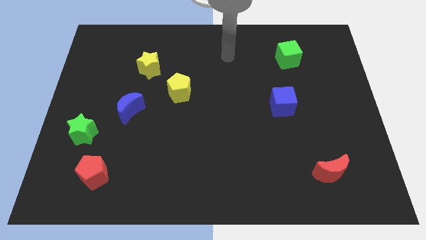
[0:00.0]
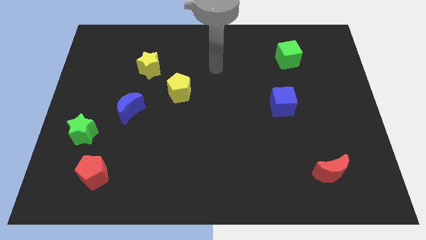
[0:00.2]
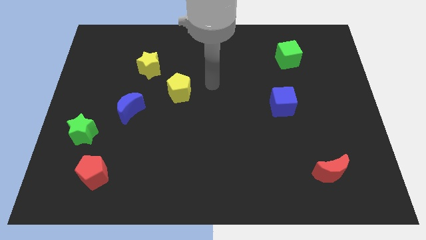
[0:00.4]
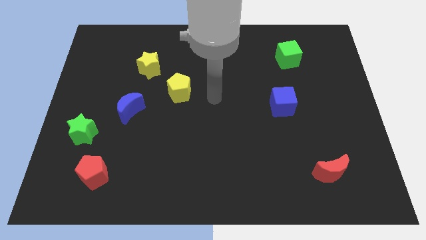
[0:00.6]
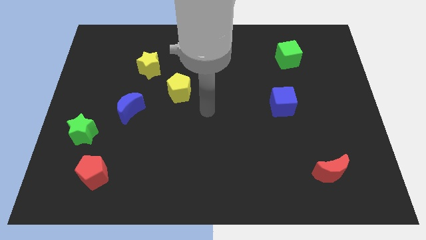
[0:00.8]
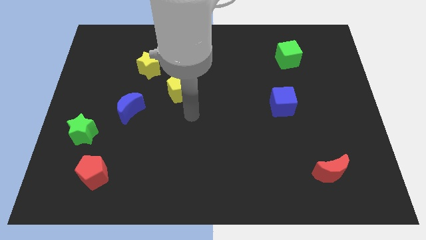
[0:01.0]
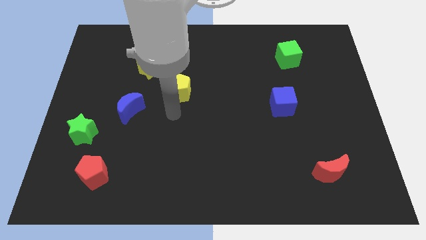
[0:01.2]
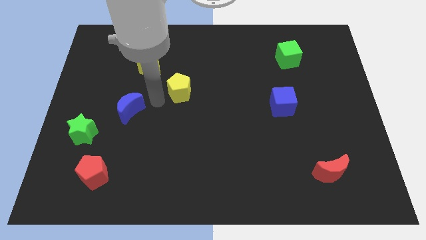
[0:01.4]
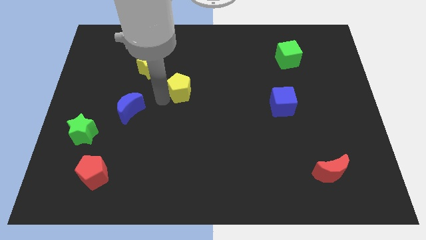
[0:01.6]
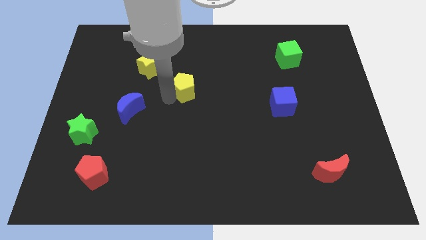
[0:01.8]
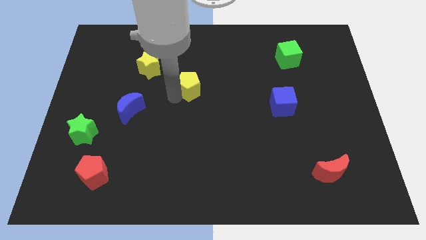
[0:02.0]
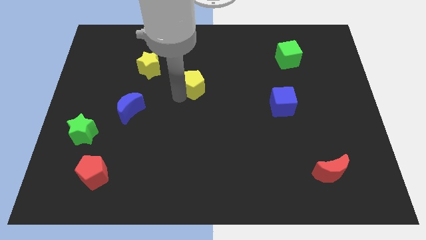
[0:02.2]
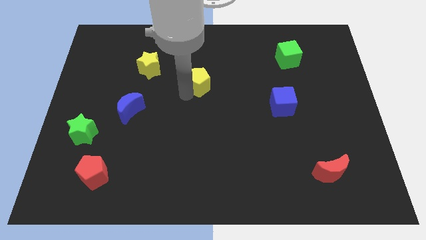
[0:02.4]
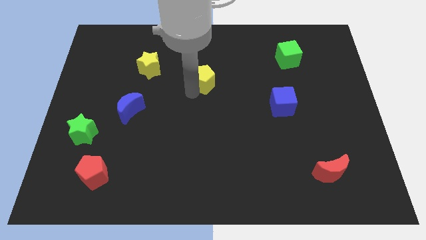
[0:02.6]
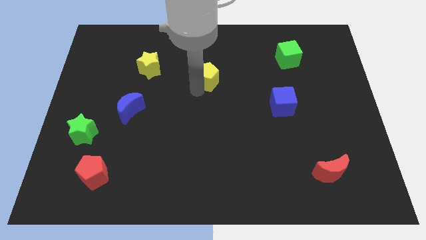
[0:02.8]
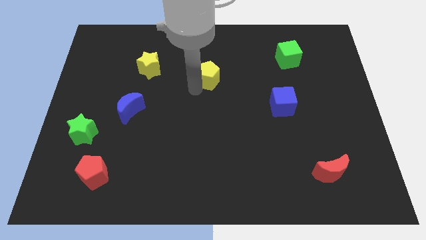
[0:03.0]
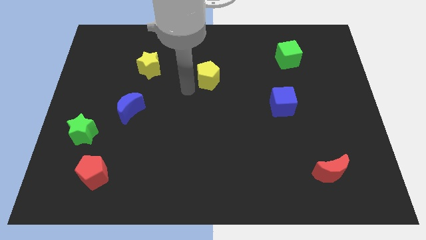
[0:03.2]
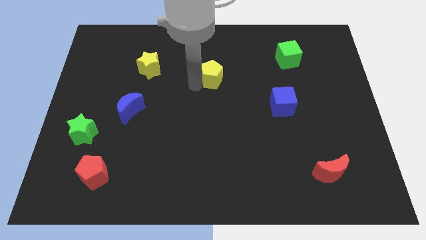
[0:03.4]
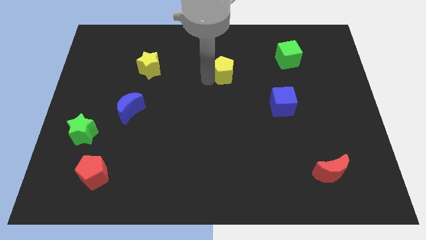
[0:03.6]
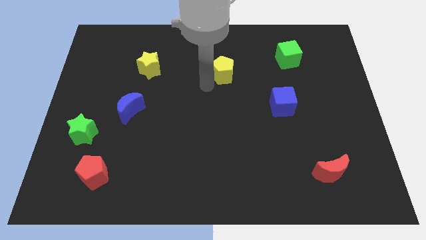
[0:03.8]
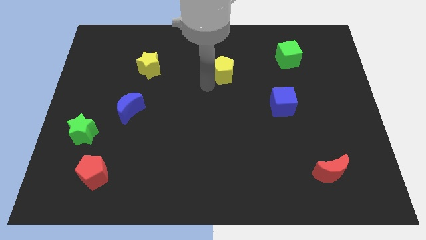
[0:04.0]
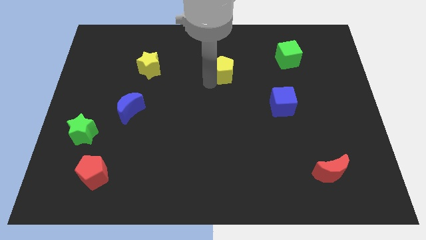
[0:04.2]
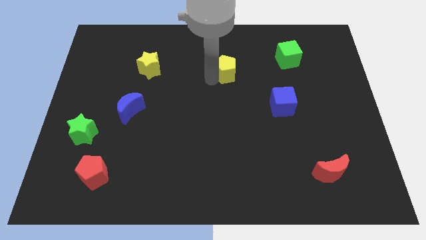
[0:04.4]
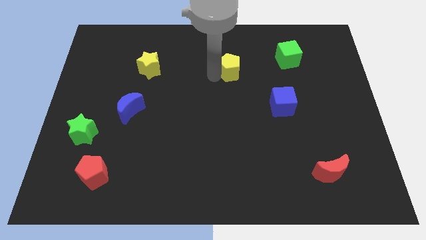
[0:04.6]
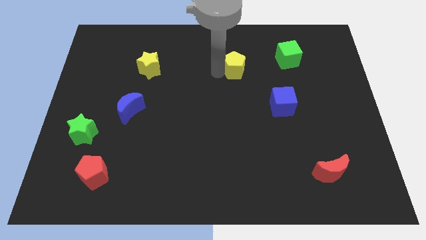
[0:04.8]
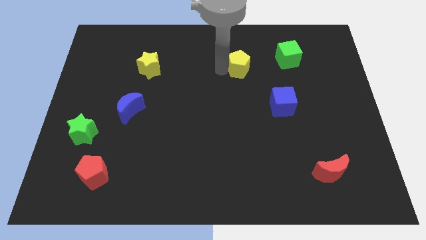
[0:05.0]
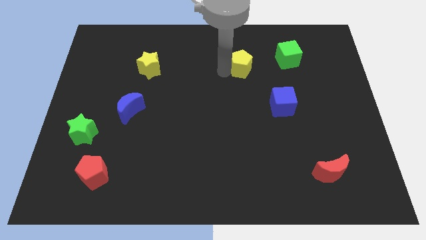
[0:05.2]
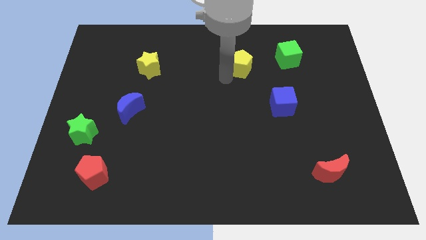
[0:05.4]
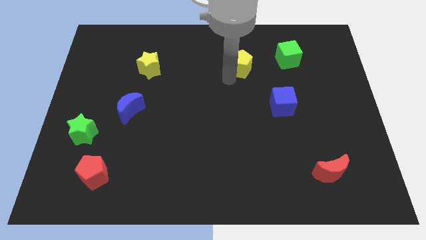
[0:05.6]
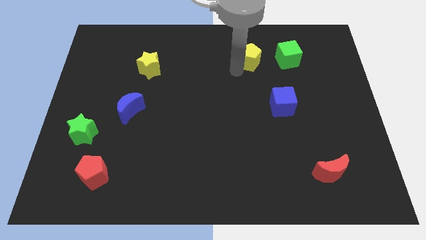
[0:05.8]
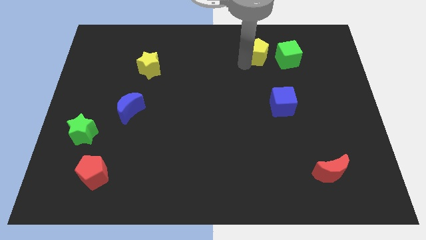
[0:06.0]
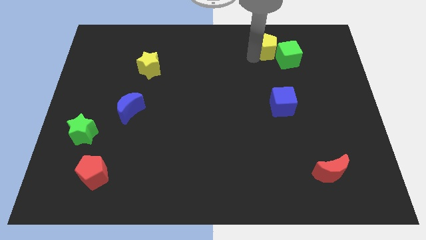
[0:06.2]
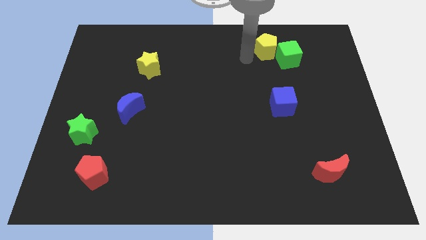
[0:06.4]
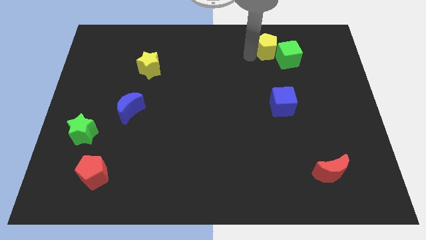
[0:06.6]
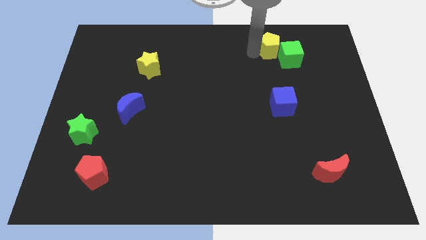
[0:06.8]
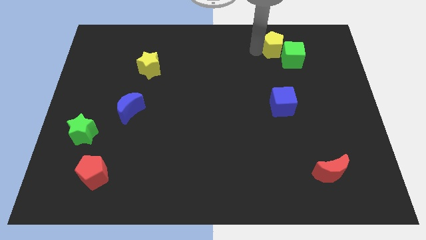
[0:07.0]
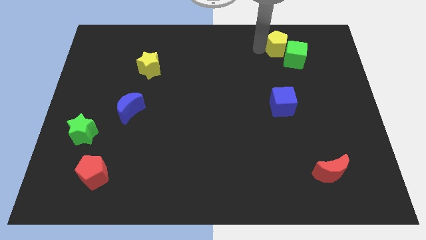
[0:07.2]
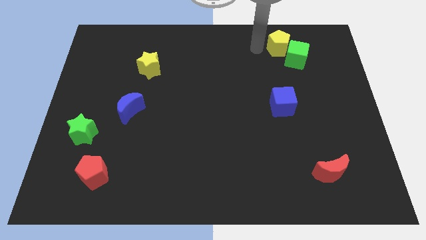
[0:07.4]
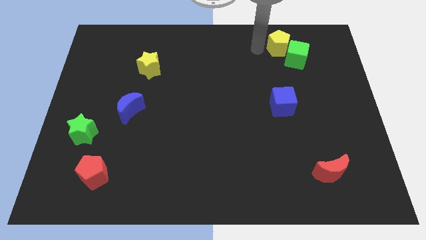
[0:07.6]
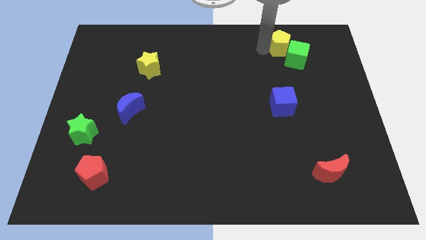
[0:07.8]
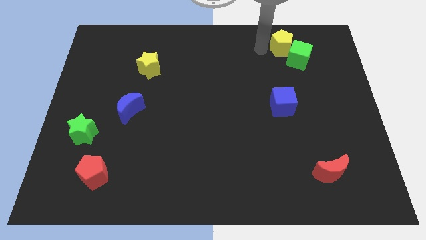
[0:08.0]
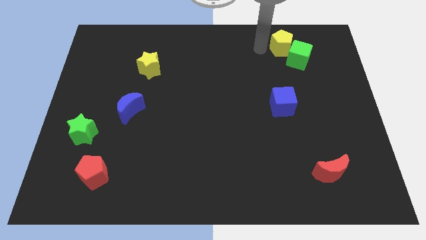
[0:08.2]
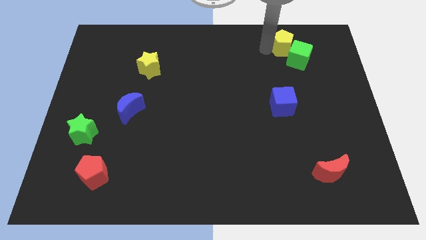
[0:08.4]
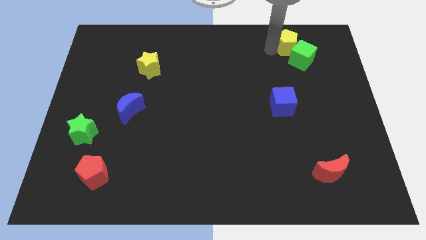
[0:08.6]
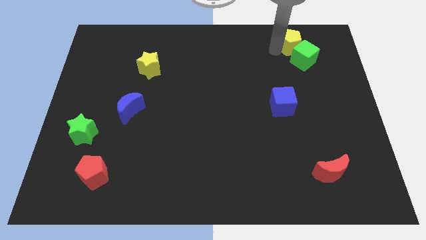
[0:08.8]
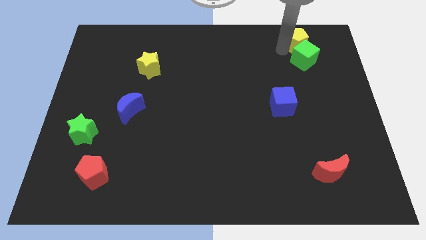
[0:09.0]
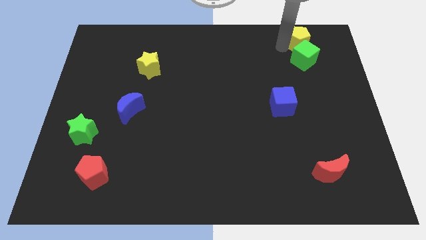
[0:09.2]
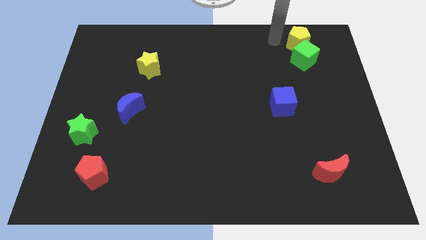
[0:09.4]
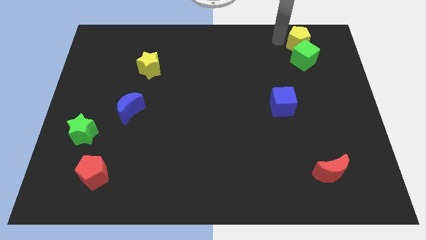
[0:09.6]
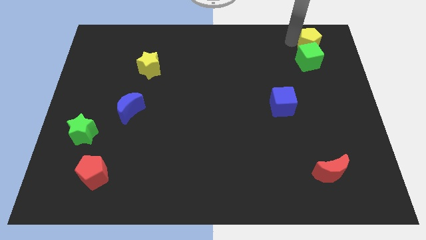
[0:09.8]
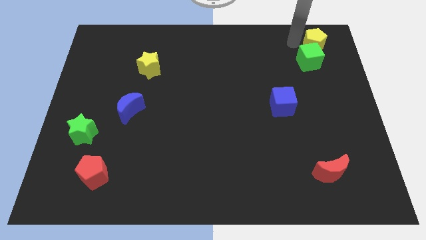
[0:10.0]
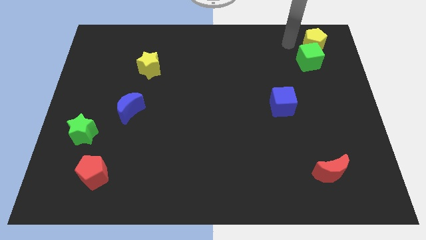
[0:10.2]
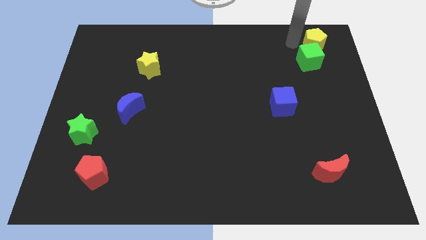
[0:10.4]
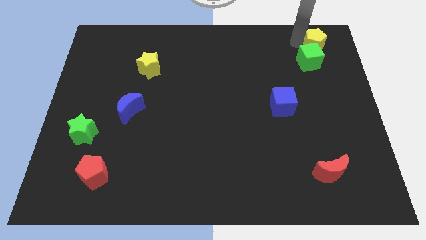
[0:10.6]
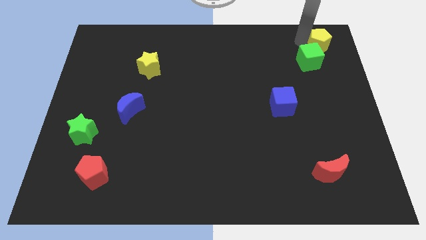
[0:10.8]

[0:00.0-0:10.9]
push the yellow pentagon to the top right corner

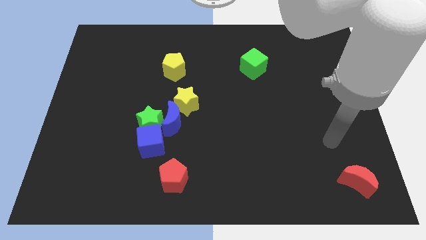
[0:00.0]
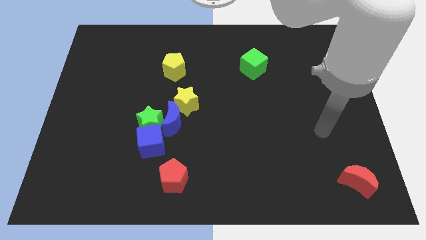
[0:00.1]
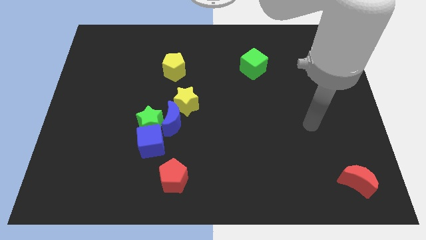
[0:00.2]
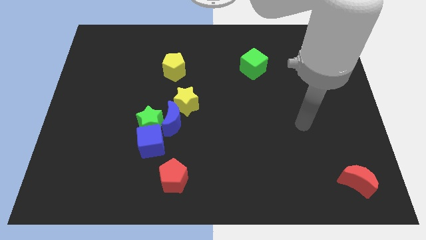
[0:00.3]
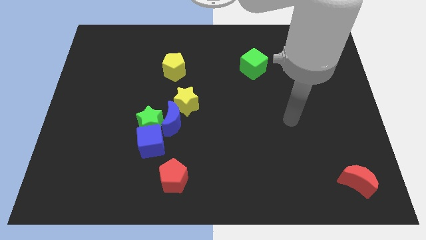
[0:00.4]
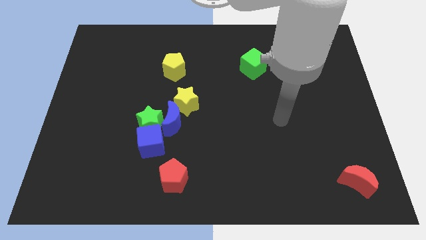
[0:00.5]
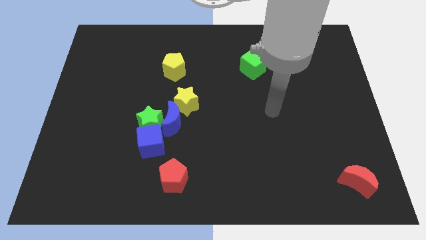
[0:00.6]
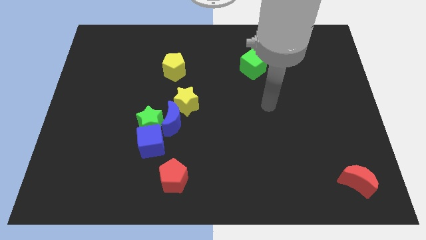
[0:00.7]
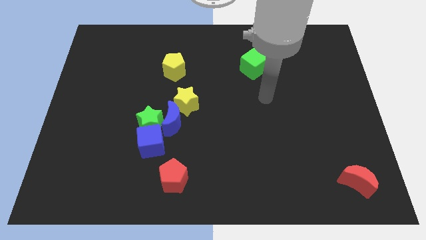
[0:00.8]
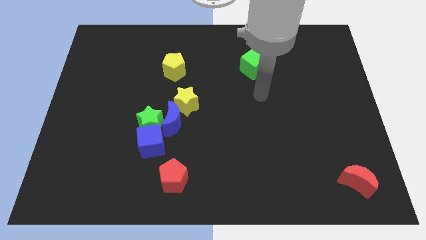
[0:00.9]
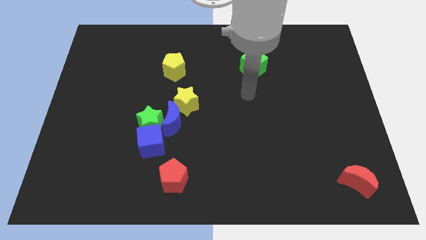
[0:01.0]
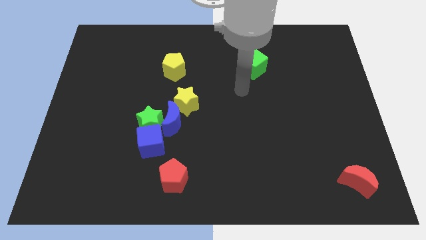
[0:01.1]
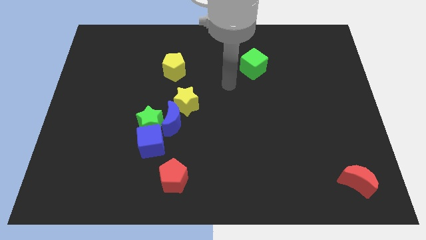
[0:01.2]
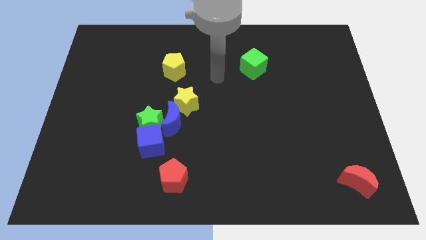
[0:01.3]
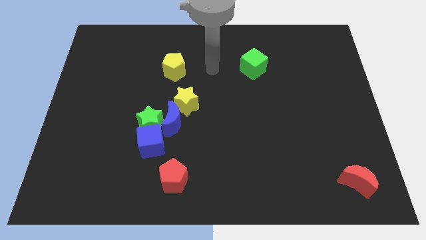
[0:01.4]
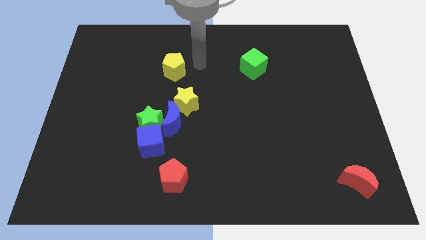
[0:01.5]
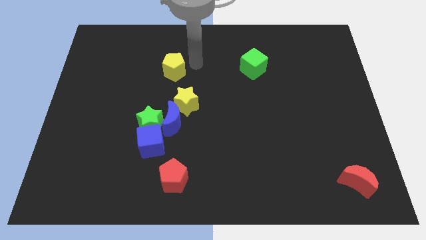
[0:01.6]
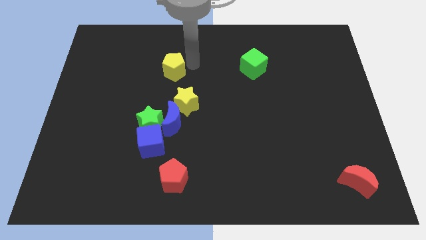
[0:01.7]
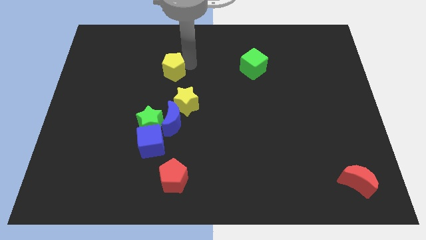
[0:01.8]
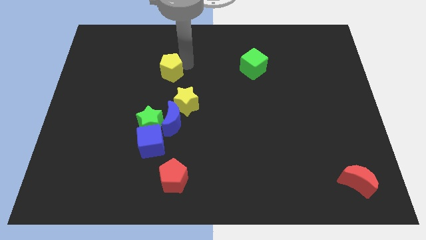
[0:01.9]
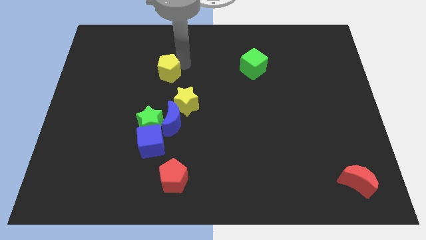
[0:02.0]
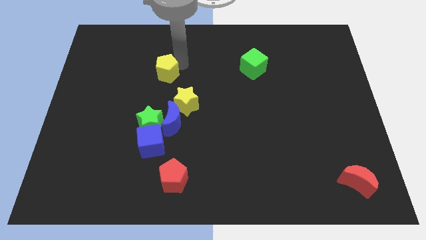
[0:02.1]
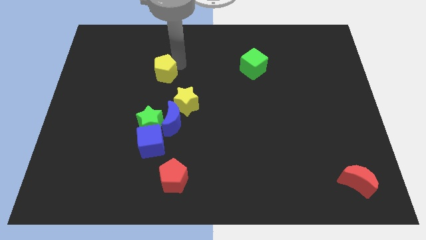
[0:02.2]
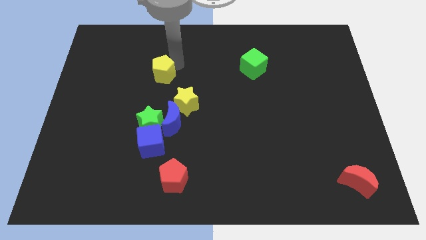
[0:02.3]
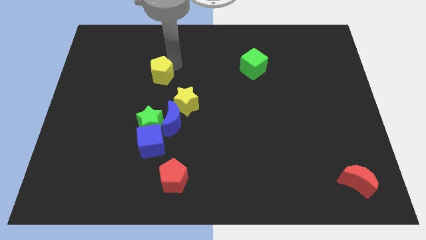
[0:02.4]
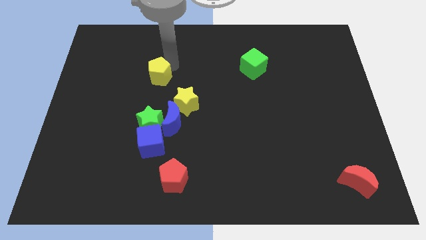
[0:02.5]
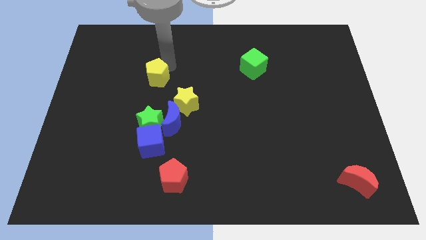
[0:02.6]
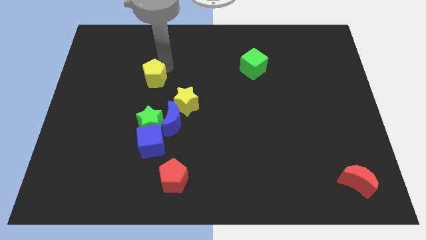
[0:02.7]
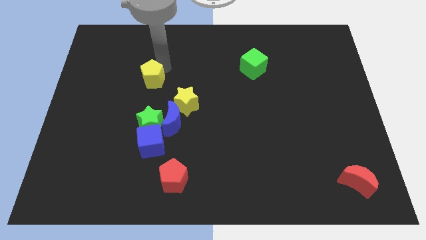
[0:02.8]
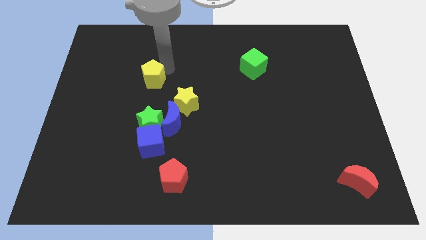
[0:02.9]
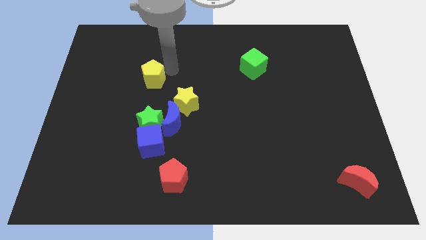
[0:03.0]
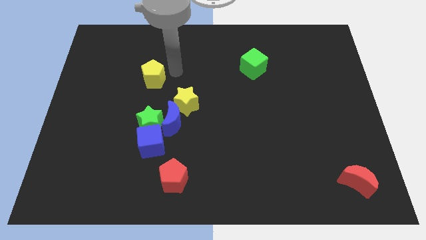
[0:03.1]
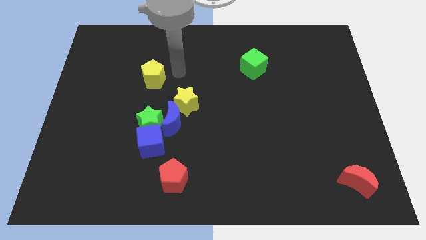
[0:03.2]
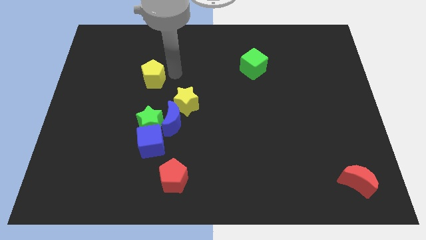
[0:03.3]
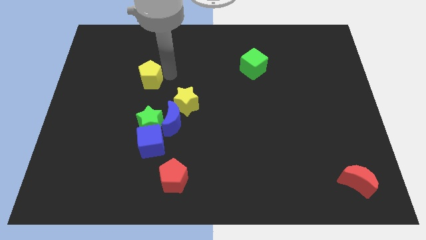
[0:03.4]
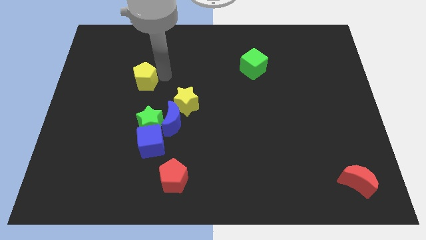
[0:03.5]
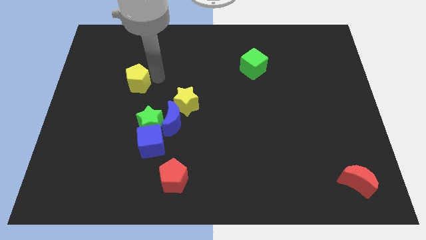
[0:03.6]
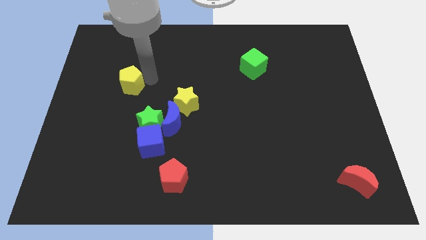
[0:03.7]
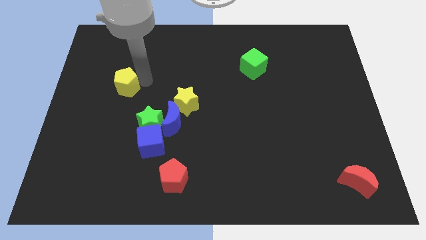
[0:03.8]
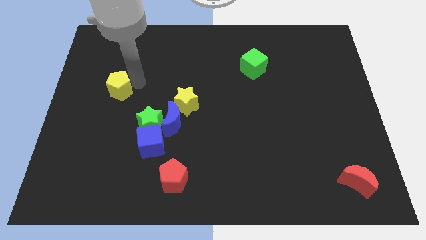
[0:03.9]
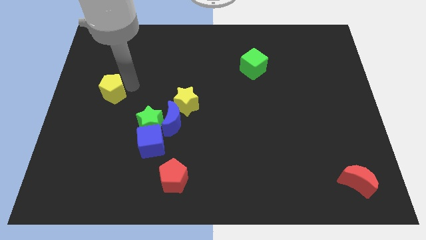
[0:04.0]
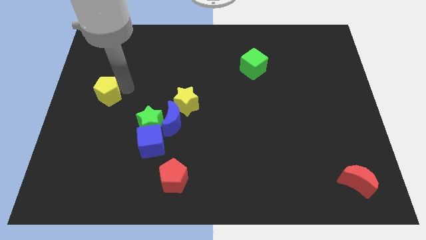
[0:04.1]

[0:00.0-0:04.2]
put the yellow pentagon to the left side of the board
